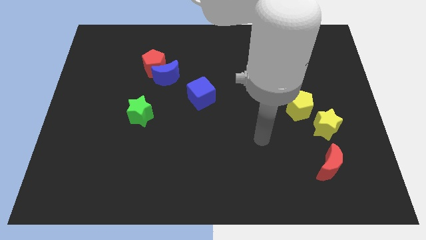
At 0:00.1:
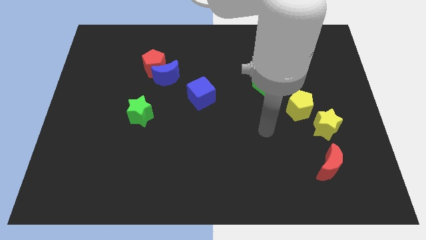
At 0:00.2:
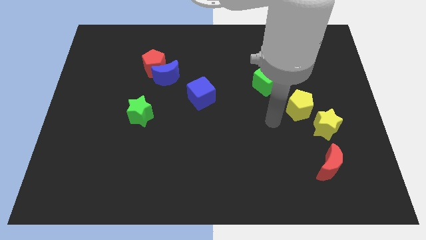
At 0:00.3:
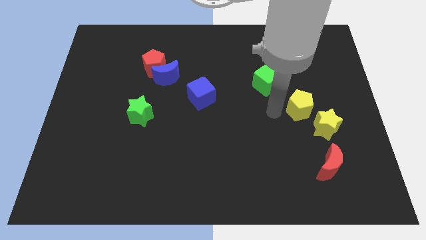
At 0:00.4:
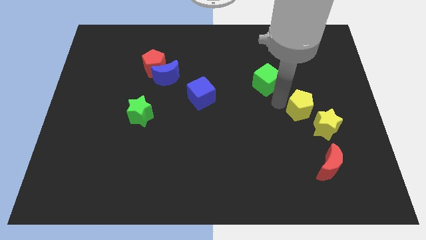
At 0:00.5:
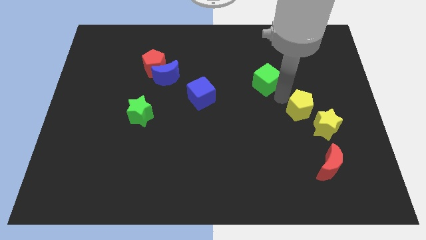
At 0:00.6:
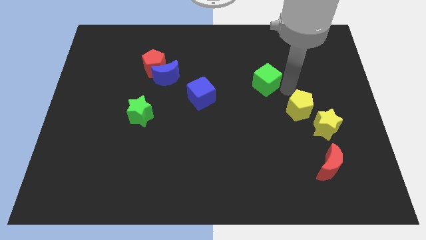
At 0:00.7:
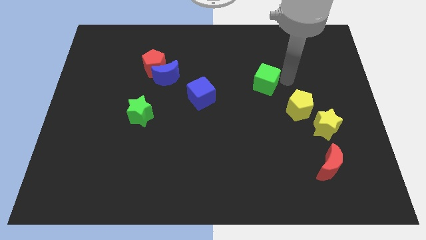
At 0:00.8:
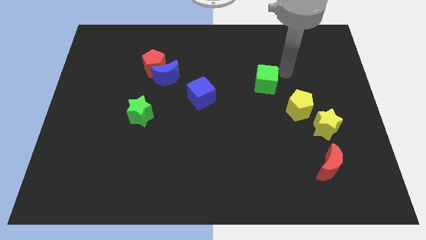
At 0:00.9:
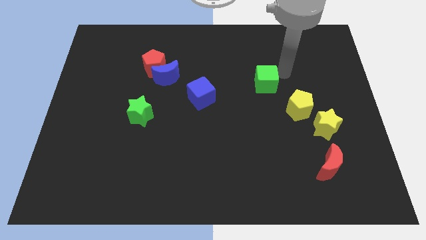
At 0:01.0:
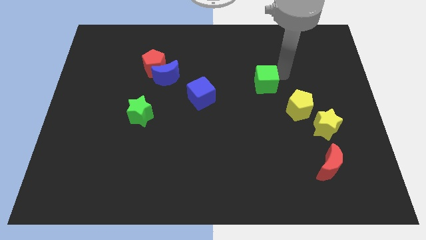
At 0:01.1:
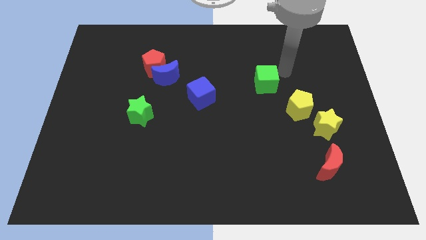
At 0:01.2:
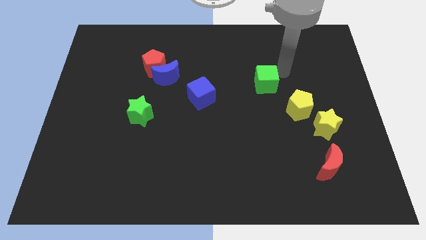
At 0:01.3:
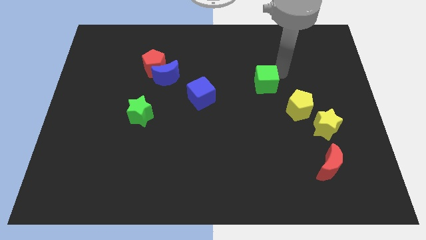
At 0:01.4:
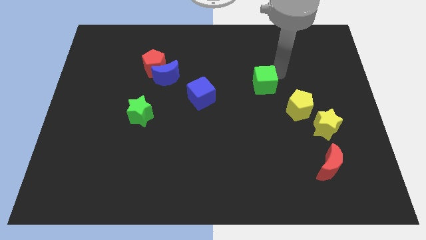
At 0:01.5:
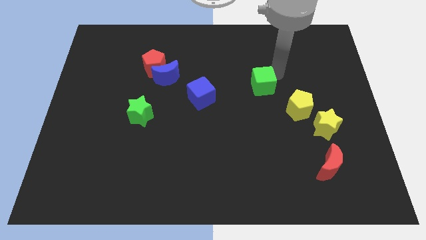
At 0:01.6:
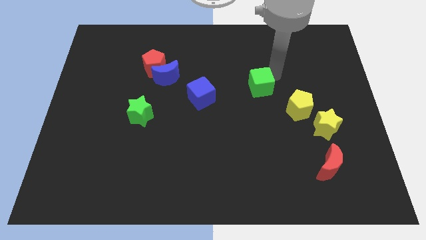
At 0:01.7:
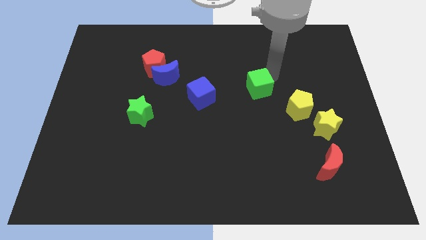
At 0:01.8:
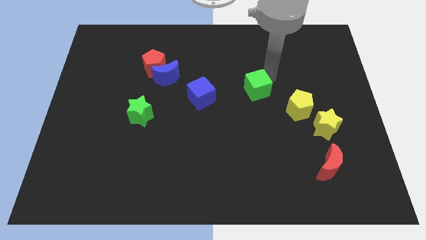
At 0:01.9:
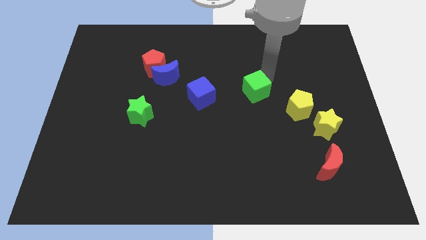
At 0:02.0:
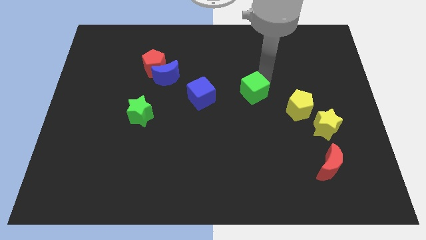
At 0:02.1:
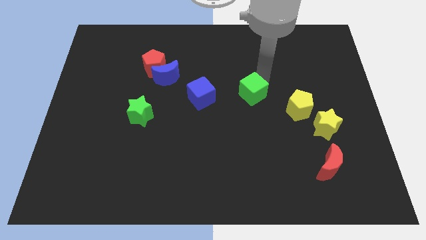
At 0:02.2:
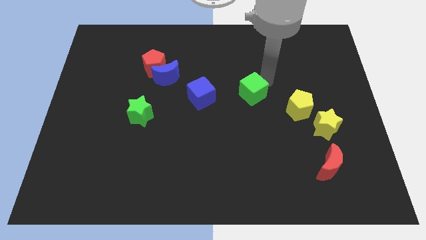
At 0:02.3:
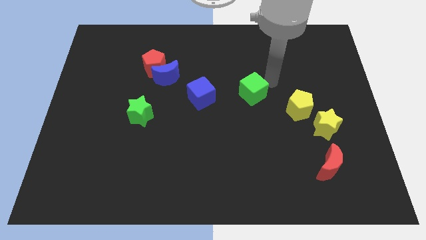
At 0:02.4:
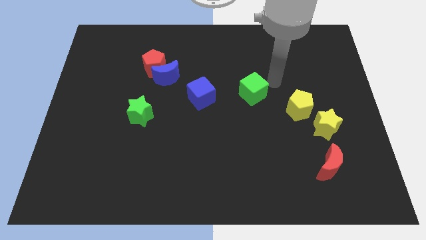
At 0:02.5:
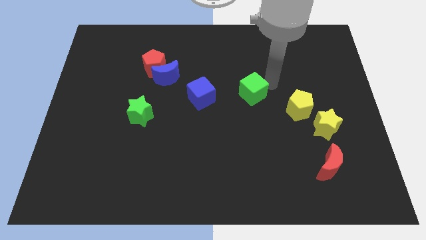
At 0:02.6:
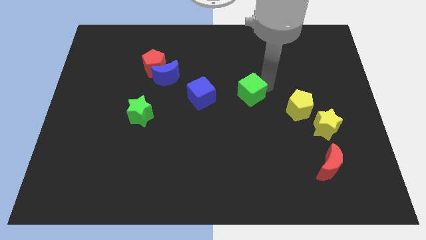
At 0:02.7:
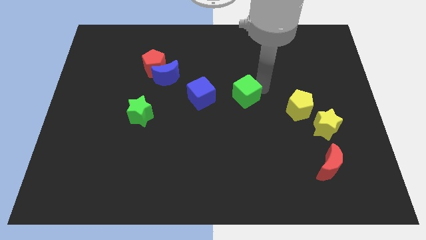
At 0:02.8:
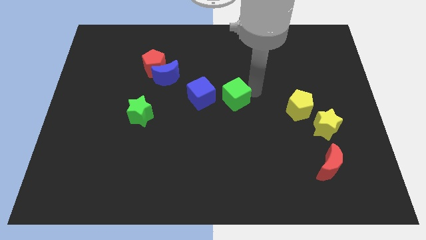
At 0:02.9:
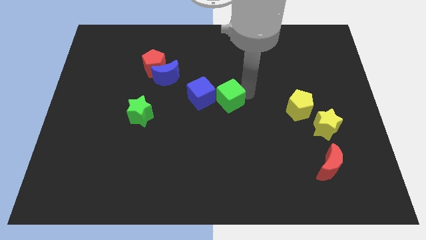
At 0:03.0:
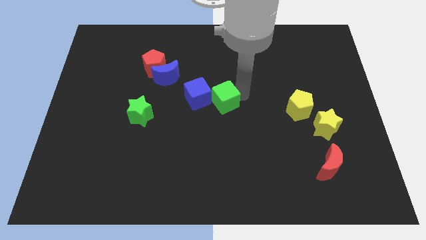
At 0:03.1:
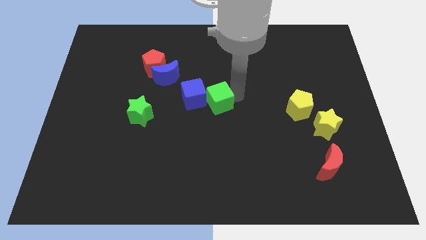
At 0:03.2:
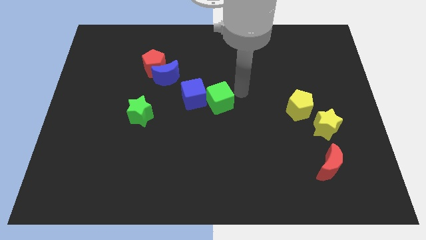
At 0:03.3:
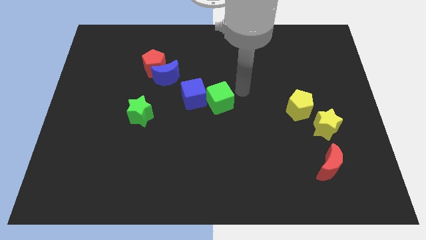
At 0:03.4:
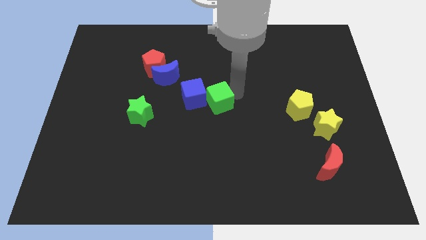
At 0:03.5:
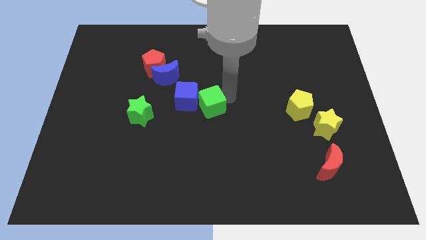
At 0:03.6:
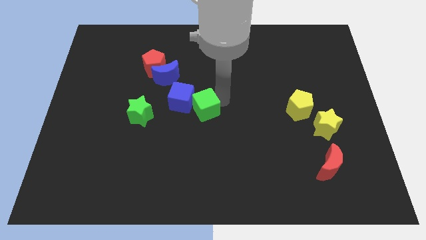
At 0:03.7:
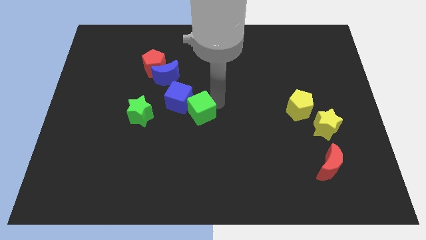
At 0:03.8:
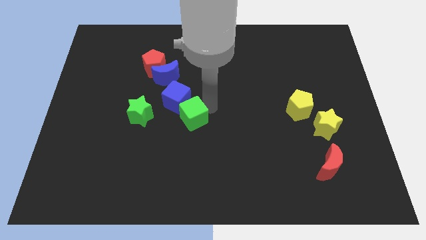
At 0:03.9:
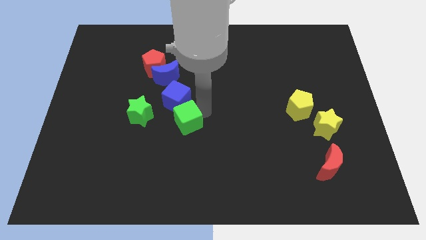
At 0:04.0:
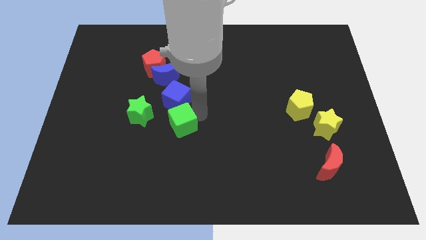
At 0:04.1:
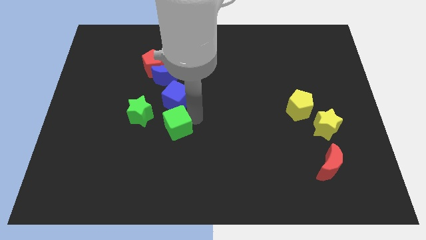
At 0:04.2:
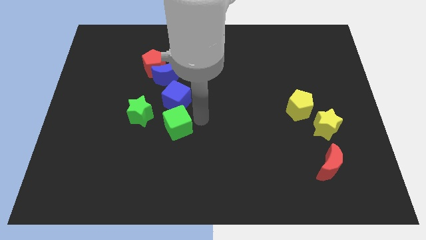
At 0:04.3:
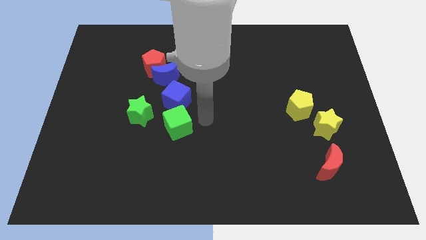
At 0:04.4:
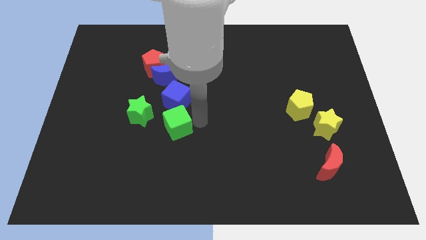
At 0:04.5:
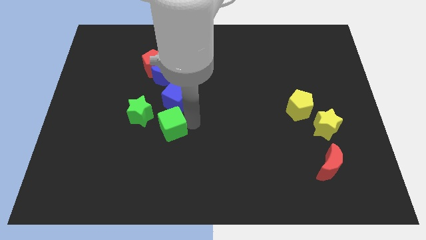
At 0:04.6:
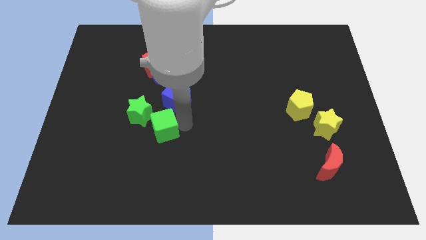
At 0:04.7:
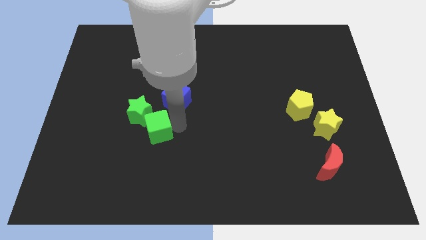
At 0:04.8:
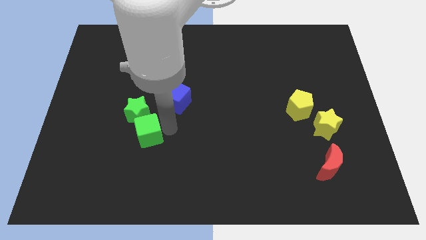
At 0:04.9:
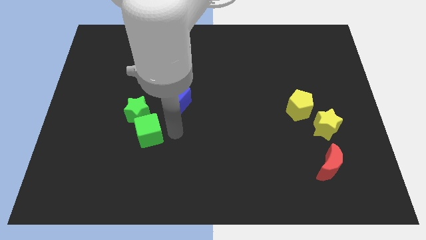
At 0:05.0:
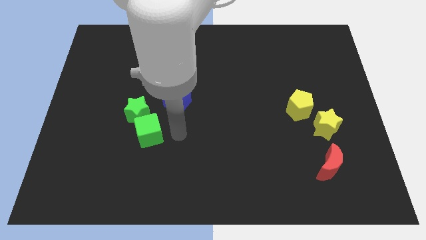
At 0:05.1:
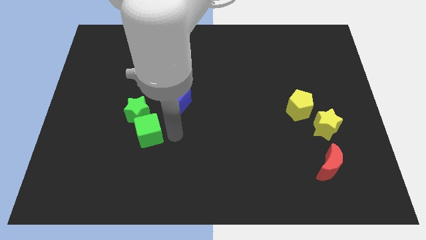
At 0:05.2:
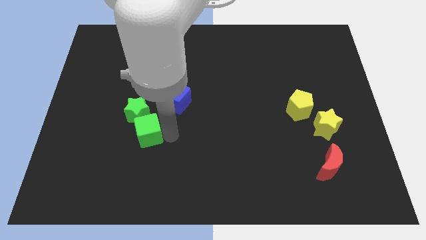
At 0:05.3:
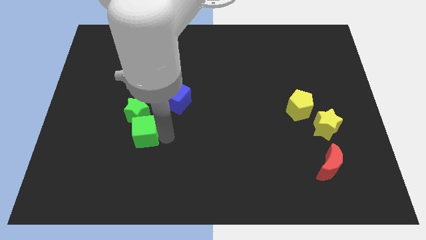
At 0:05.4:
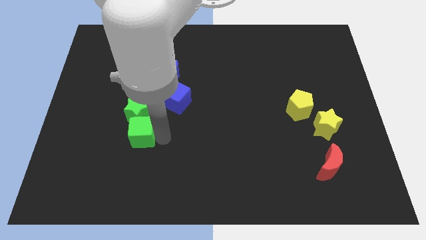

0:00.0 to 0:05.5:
push the green cube to the bottom left of the green star

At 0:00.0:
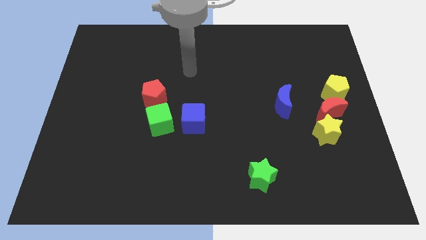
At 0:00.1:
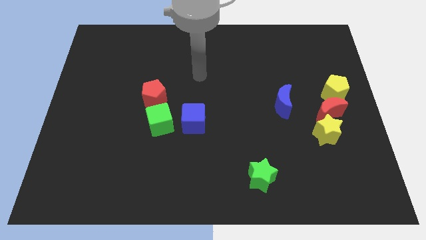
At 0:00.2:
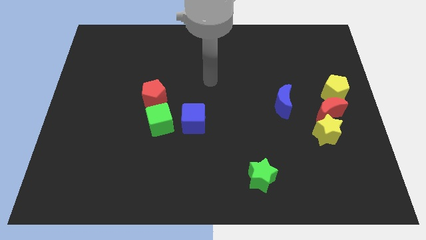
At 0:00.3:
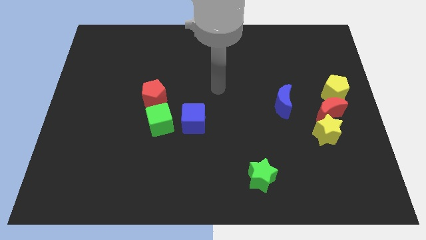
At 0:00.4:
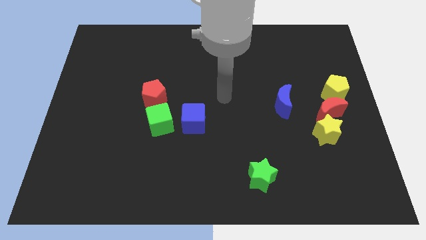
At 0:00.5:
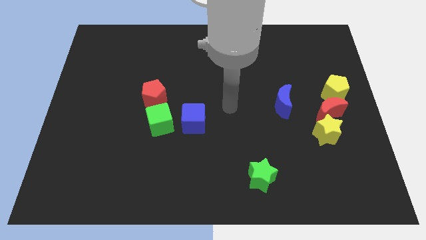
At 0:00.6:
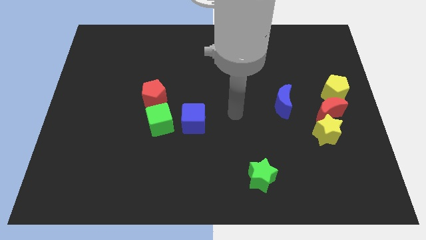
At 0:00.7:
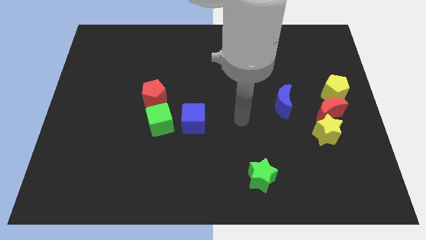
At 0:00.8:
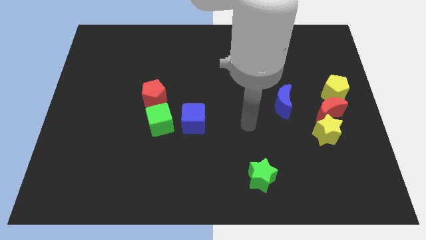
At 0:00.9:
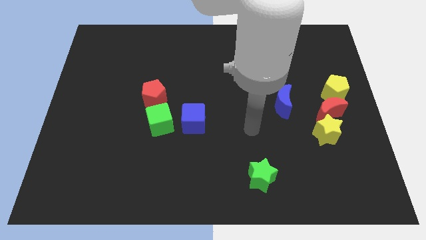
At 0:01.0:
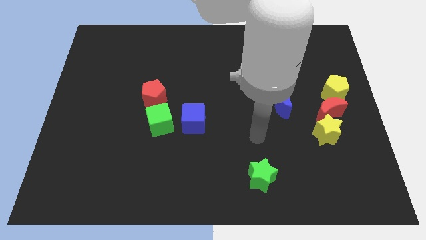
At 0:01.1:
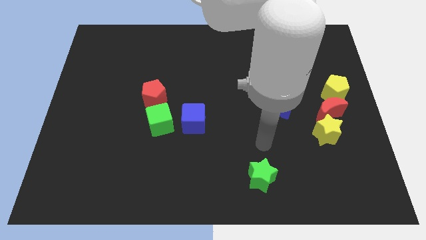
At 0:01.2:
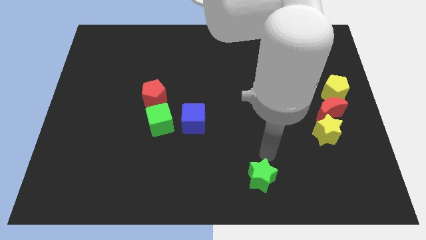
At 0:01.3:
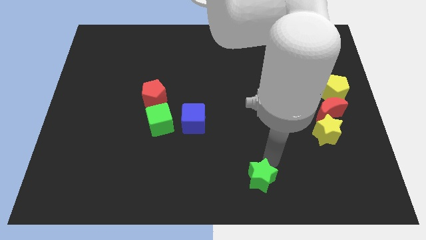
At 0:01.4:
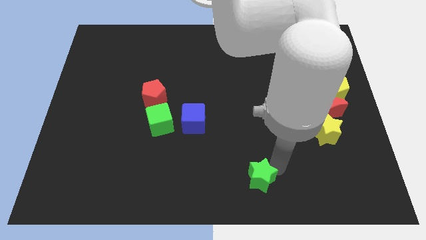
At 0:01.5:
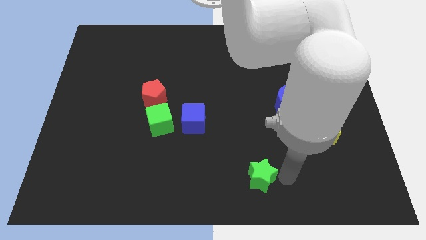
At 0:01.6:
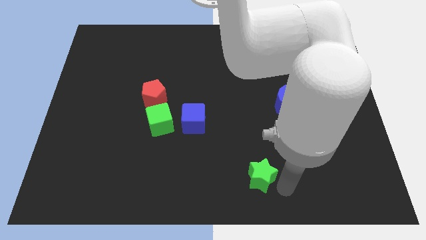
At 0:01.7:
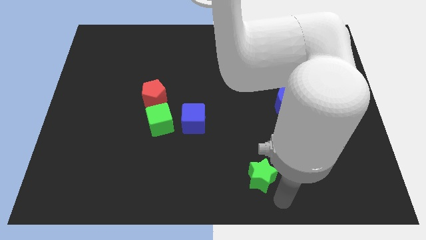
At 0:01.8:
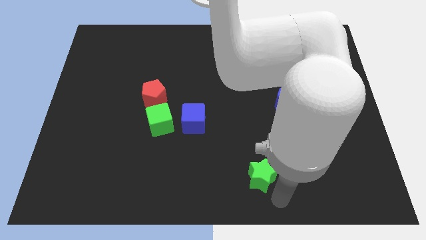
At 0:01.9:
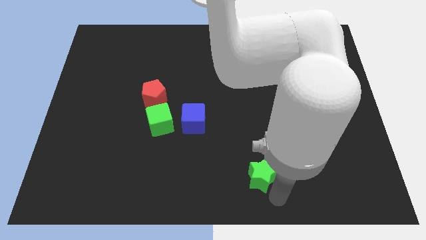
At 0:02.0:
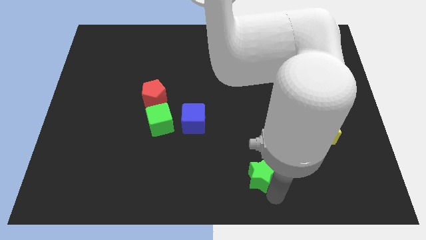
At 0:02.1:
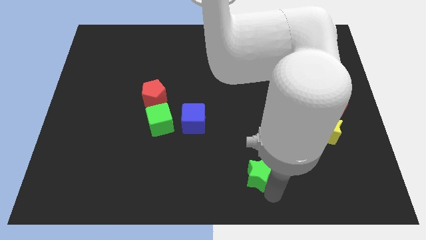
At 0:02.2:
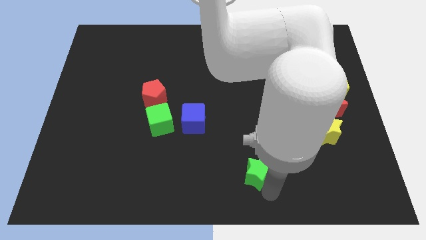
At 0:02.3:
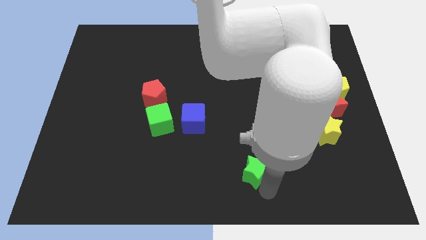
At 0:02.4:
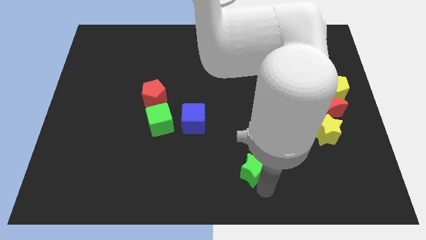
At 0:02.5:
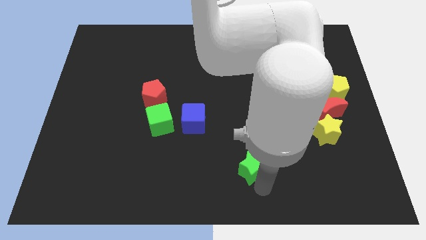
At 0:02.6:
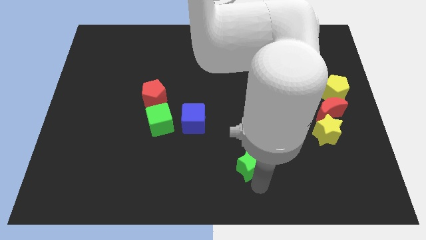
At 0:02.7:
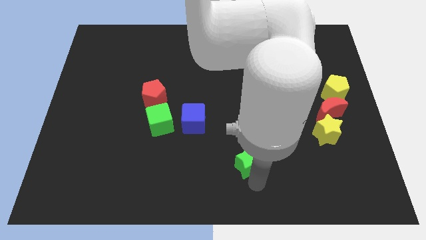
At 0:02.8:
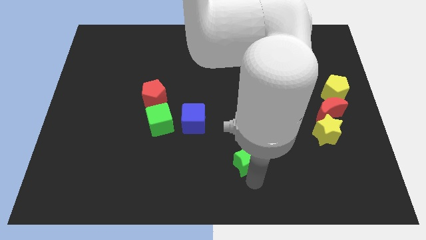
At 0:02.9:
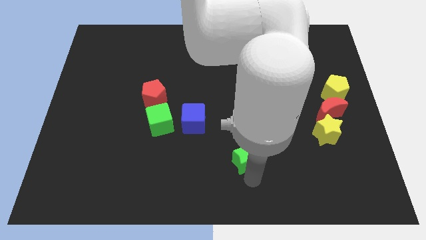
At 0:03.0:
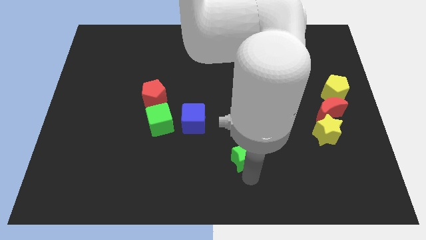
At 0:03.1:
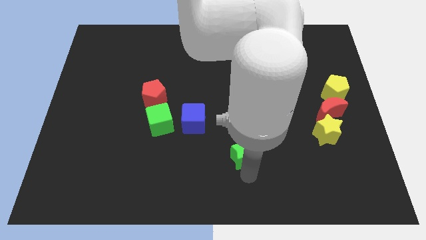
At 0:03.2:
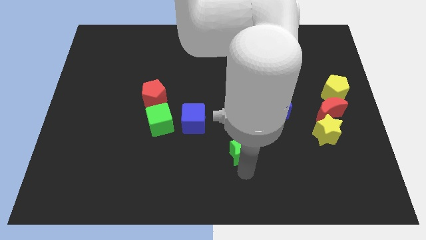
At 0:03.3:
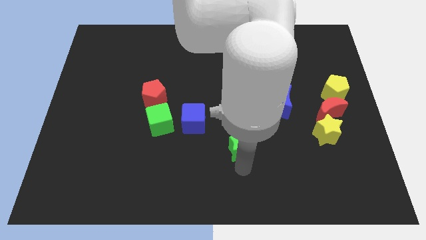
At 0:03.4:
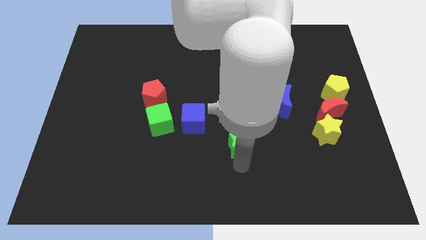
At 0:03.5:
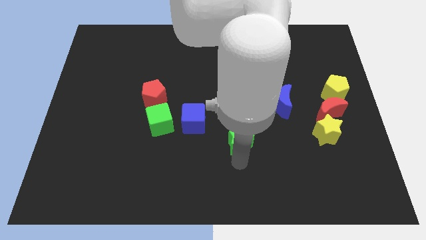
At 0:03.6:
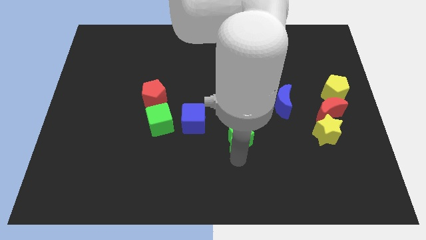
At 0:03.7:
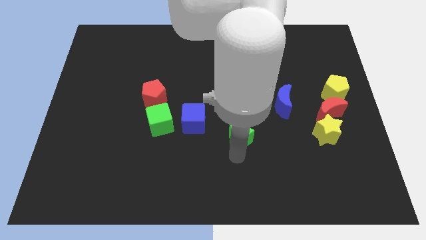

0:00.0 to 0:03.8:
move the green star right of the blue cube
